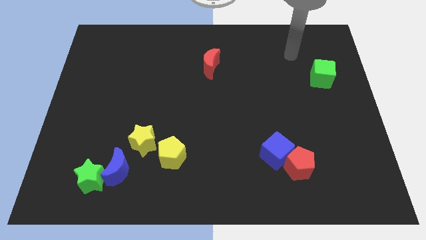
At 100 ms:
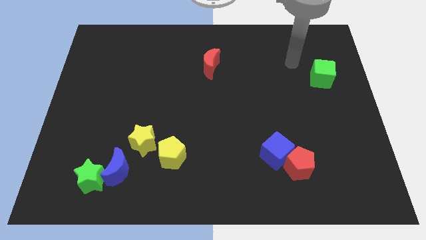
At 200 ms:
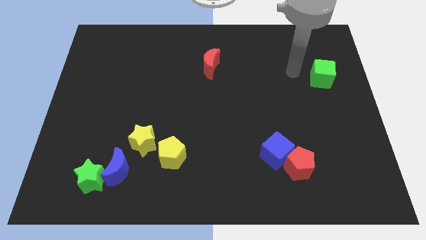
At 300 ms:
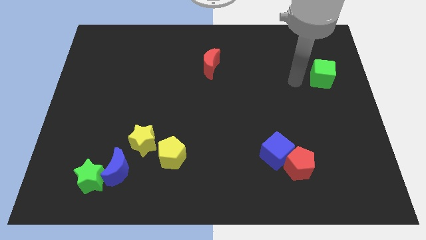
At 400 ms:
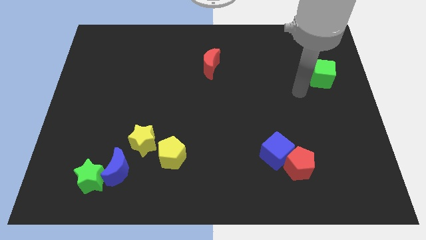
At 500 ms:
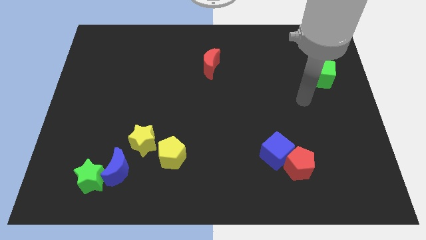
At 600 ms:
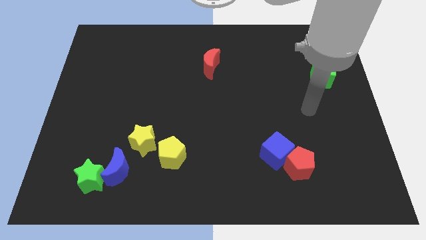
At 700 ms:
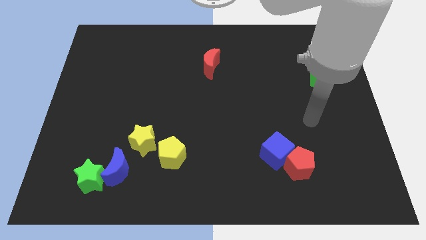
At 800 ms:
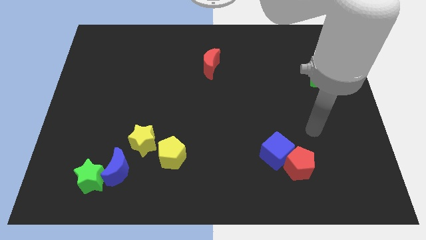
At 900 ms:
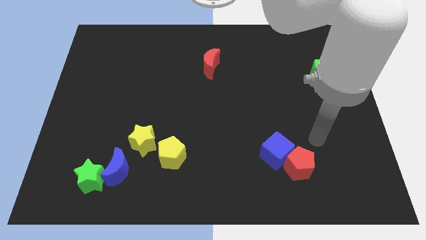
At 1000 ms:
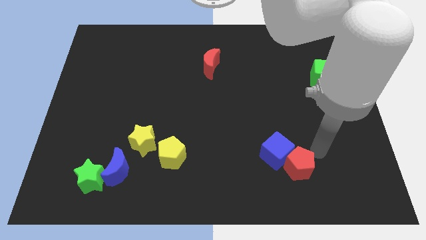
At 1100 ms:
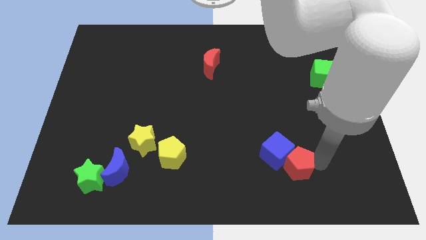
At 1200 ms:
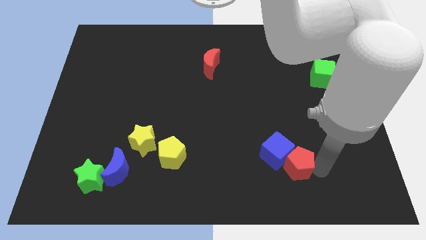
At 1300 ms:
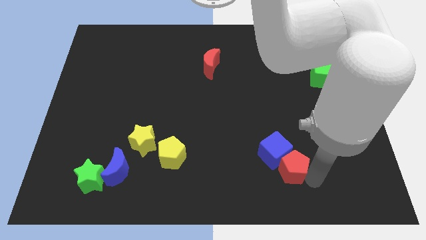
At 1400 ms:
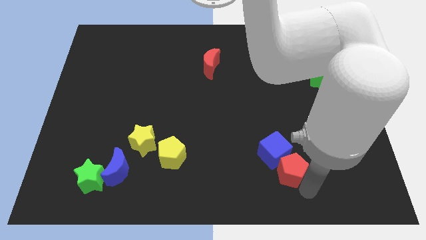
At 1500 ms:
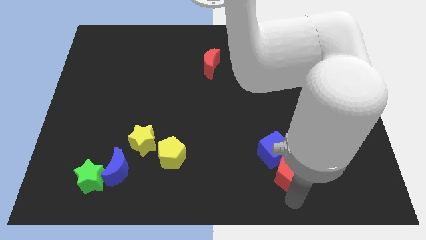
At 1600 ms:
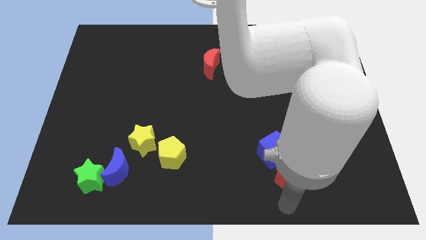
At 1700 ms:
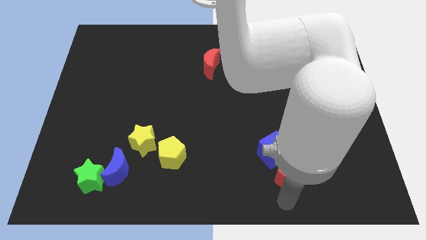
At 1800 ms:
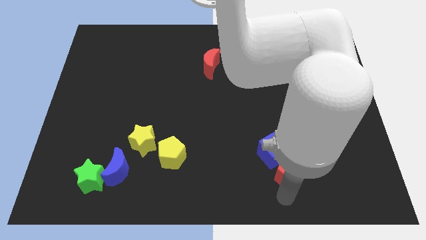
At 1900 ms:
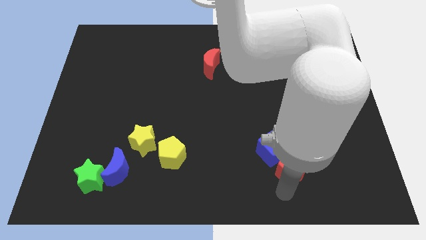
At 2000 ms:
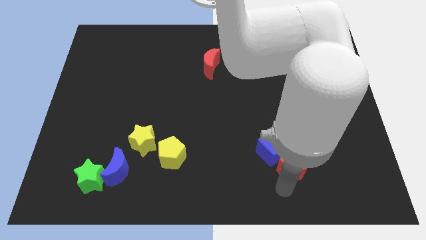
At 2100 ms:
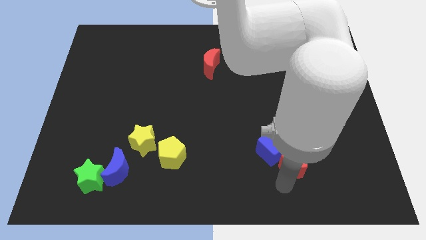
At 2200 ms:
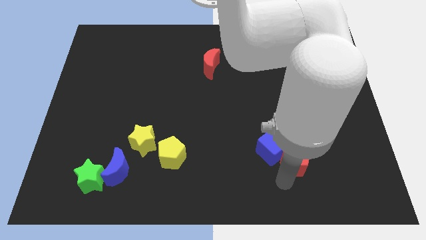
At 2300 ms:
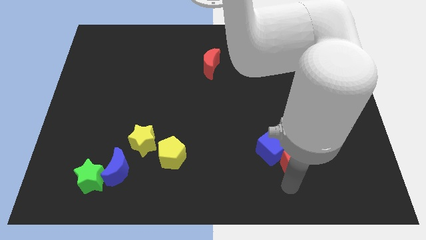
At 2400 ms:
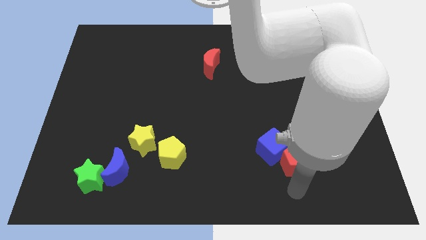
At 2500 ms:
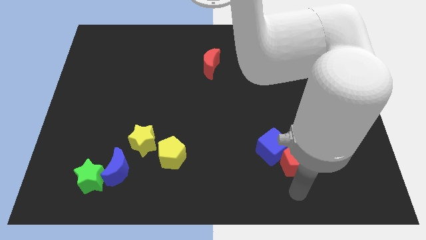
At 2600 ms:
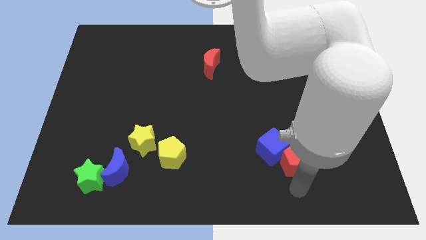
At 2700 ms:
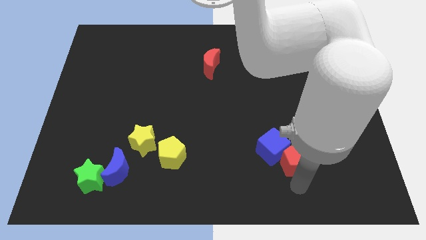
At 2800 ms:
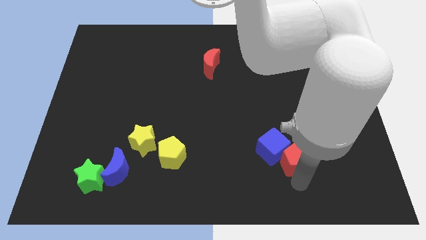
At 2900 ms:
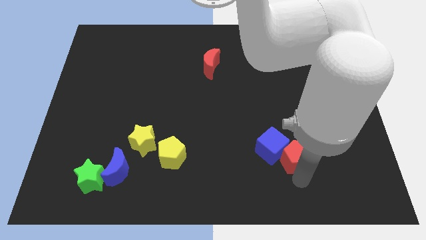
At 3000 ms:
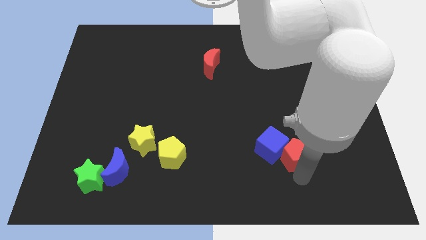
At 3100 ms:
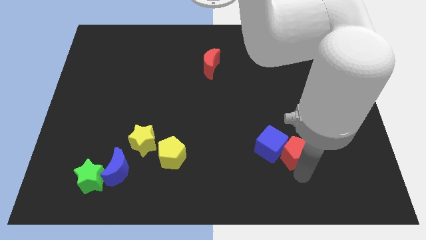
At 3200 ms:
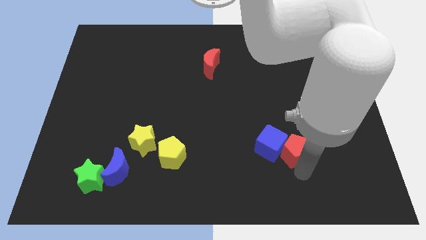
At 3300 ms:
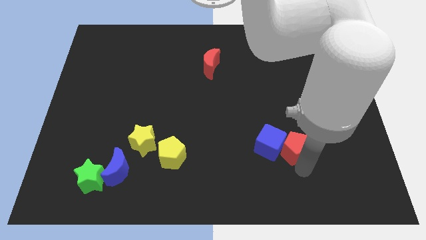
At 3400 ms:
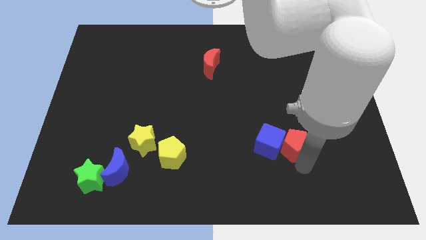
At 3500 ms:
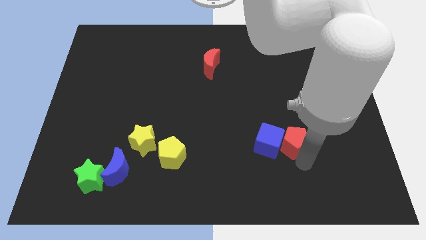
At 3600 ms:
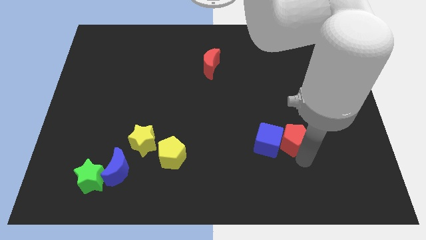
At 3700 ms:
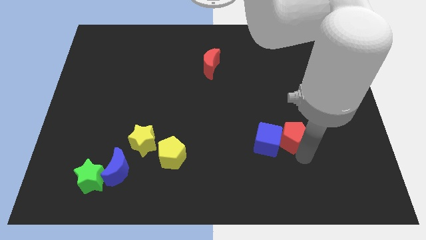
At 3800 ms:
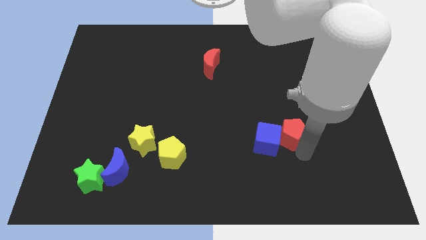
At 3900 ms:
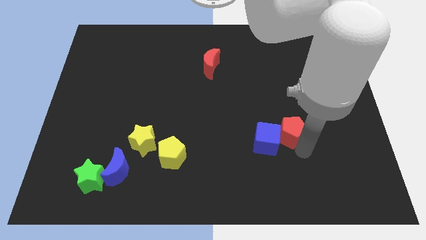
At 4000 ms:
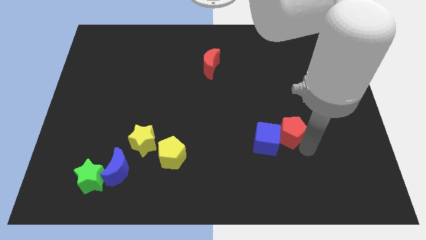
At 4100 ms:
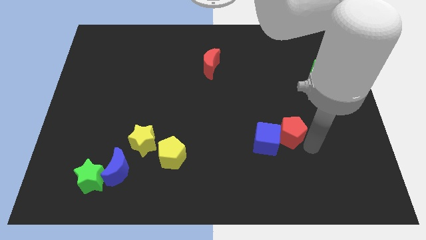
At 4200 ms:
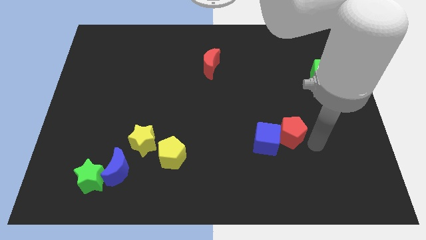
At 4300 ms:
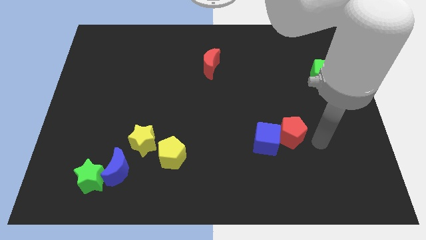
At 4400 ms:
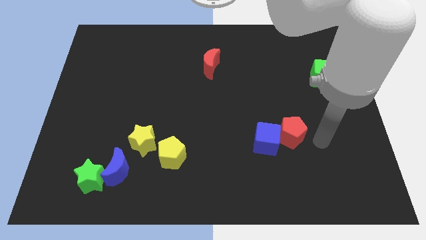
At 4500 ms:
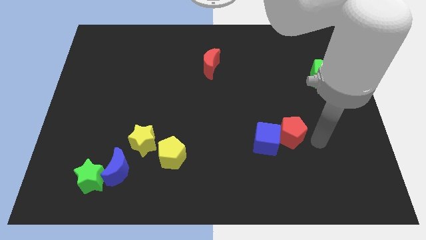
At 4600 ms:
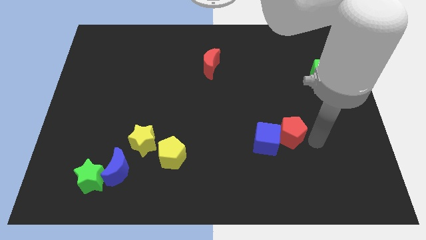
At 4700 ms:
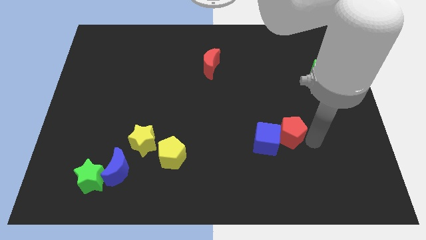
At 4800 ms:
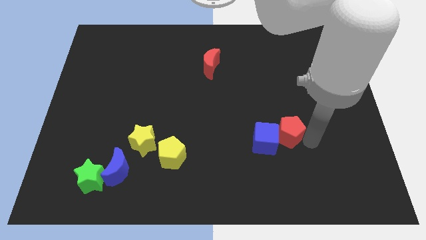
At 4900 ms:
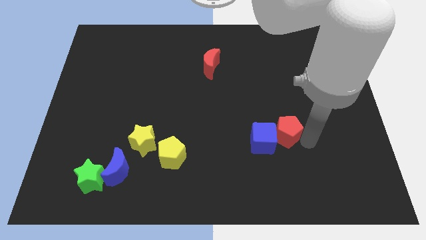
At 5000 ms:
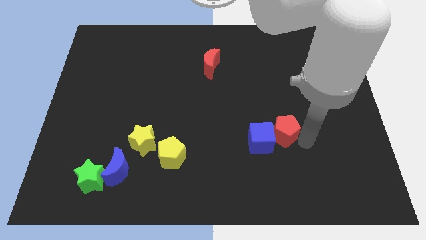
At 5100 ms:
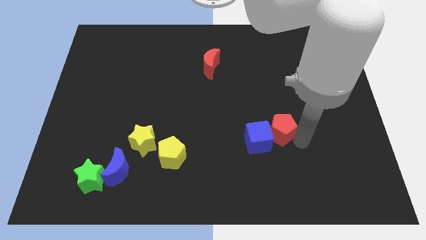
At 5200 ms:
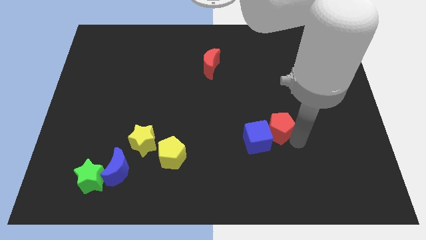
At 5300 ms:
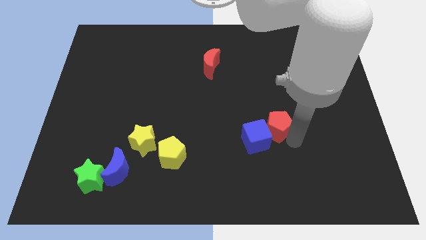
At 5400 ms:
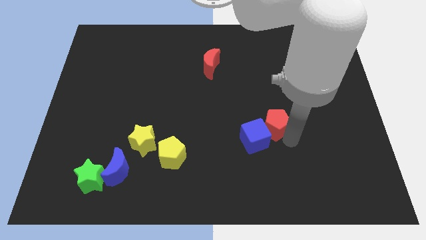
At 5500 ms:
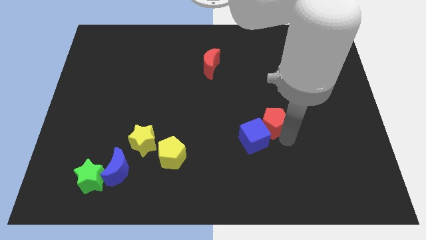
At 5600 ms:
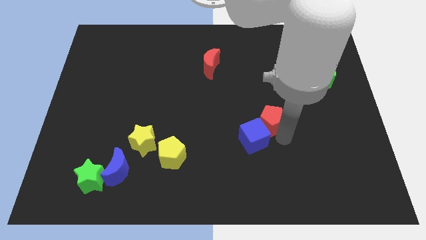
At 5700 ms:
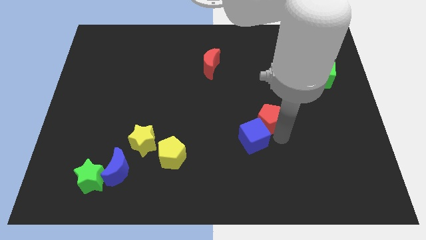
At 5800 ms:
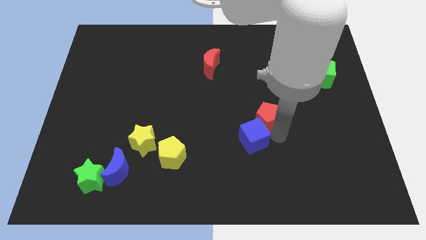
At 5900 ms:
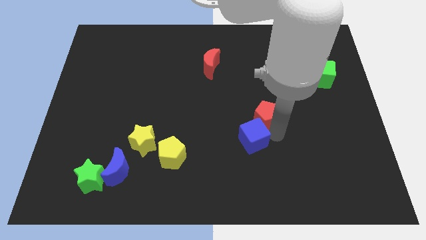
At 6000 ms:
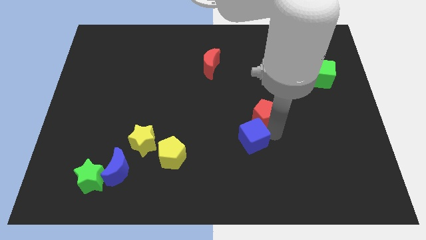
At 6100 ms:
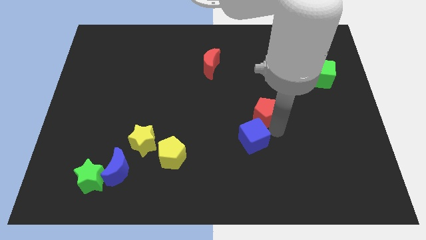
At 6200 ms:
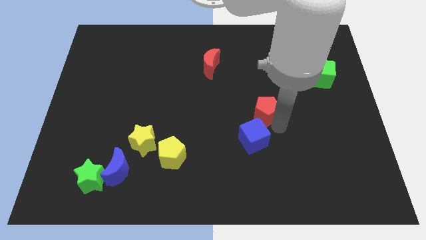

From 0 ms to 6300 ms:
put the red pentagon to the center

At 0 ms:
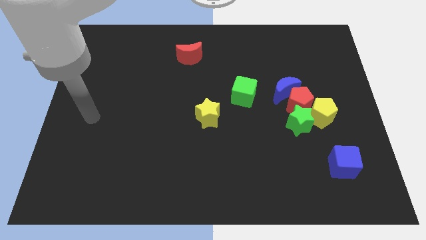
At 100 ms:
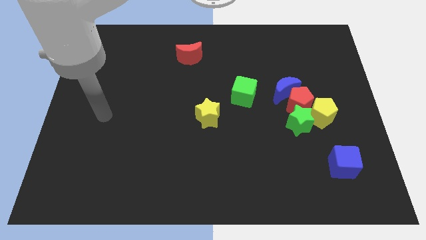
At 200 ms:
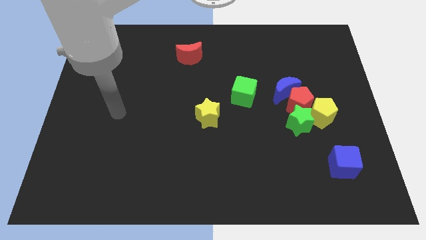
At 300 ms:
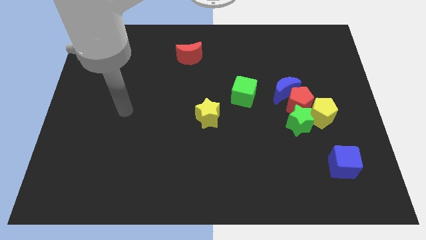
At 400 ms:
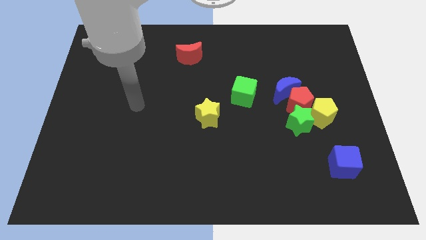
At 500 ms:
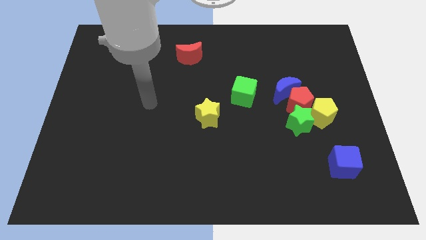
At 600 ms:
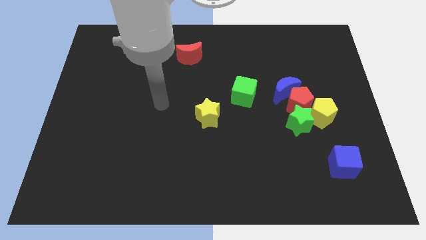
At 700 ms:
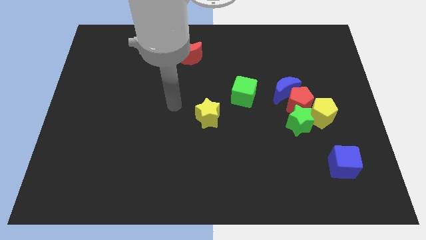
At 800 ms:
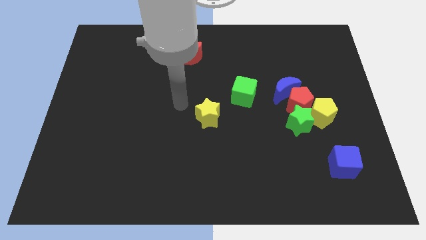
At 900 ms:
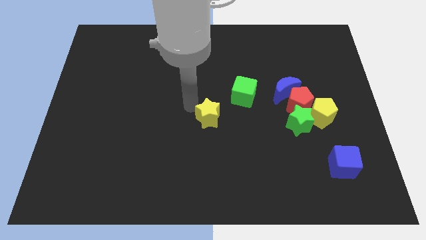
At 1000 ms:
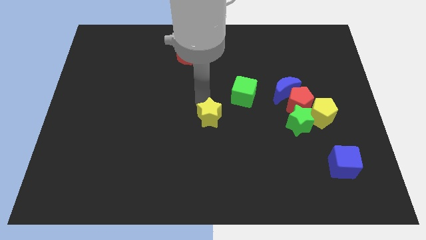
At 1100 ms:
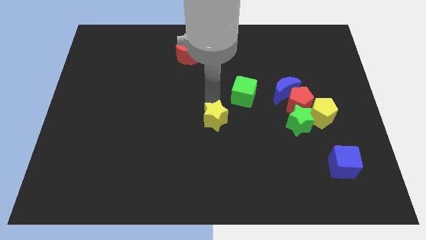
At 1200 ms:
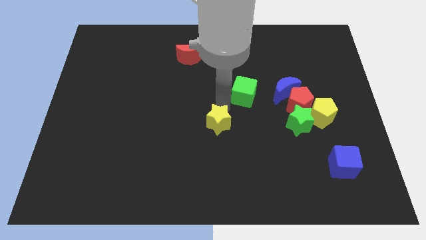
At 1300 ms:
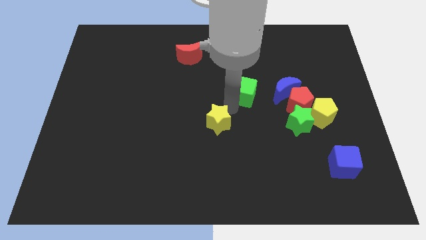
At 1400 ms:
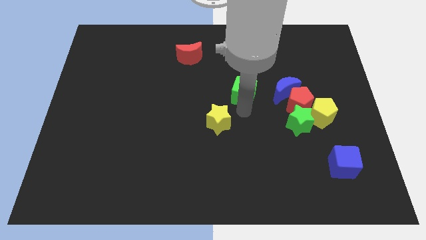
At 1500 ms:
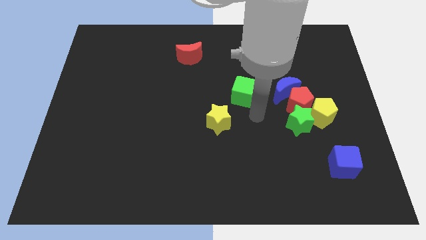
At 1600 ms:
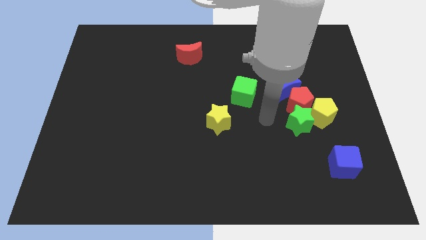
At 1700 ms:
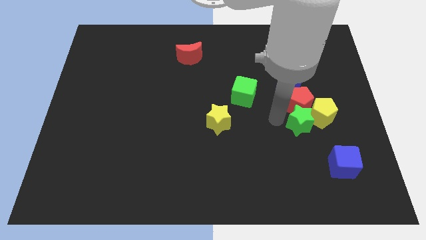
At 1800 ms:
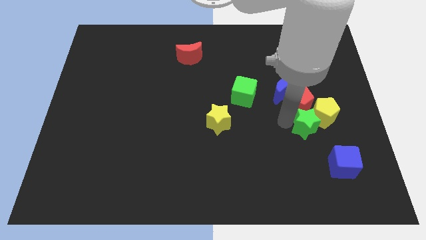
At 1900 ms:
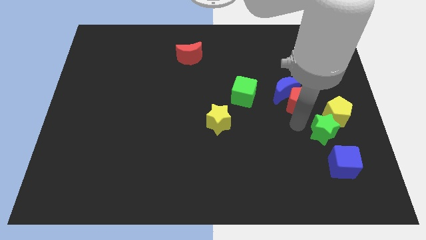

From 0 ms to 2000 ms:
slide the yellow pentagon to the center right
